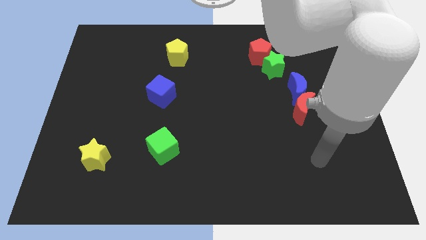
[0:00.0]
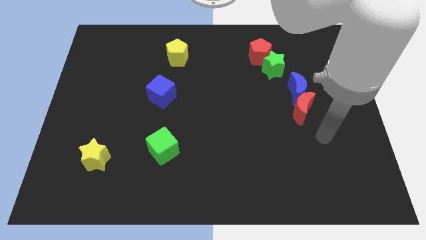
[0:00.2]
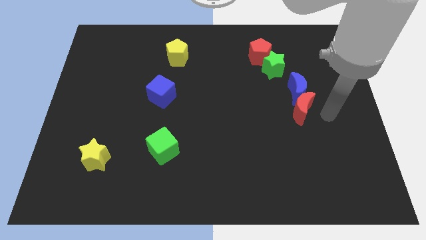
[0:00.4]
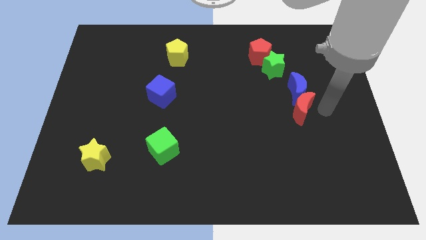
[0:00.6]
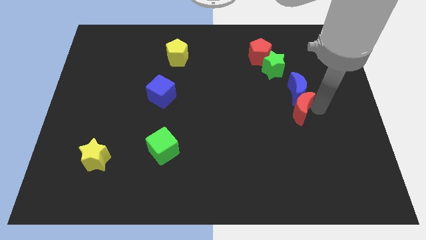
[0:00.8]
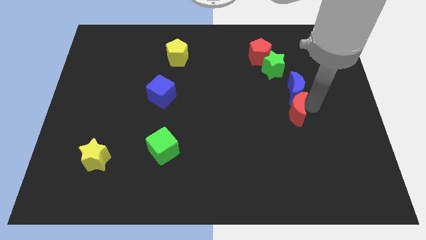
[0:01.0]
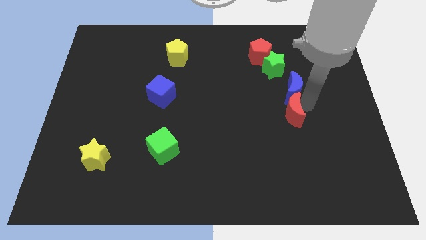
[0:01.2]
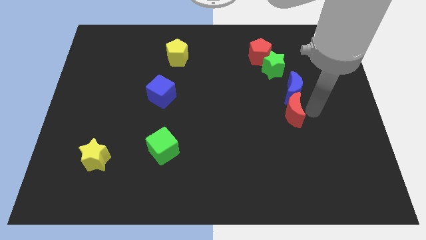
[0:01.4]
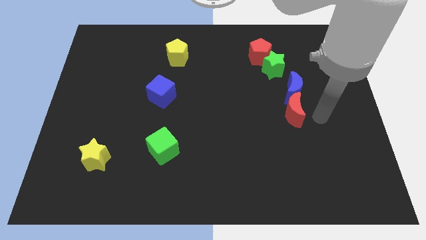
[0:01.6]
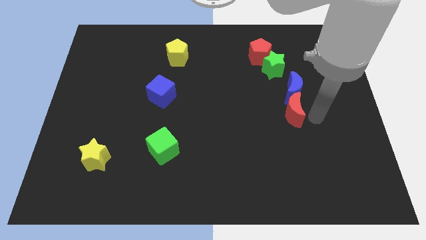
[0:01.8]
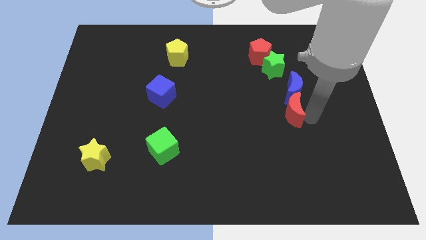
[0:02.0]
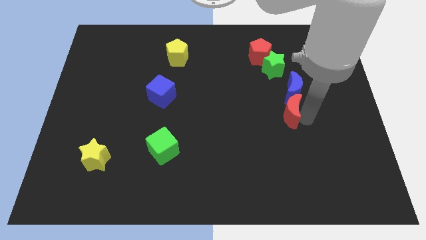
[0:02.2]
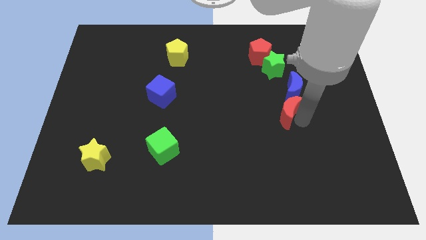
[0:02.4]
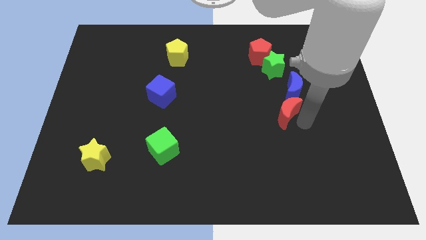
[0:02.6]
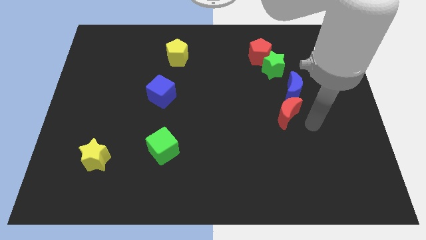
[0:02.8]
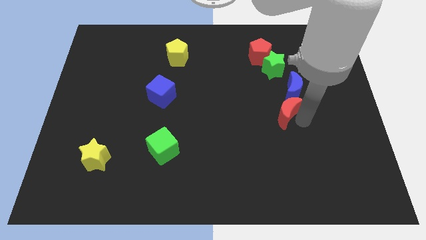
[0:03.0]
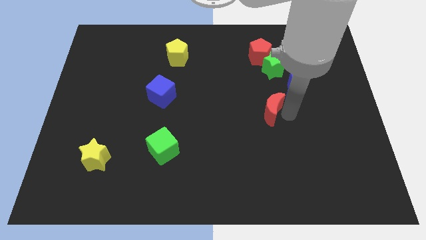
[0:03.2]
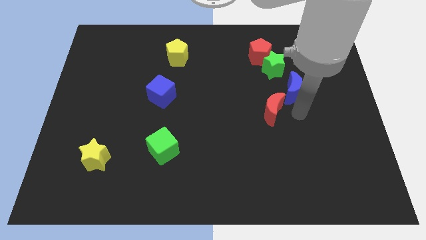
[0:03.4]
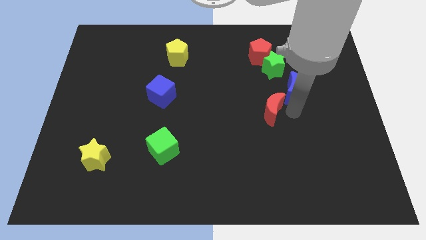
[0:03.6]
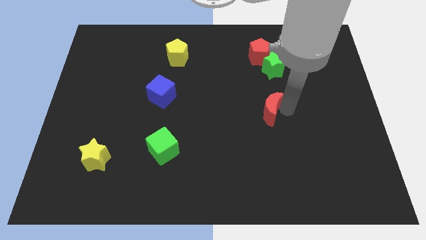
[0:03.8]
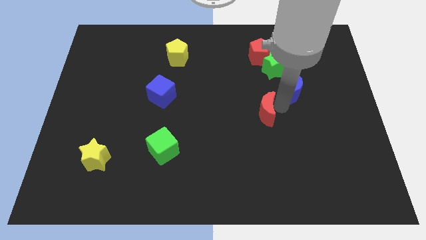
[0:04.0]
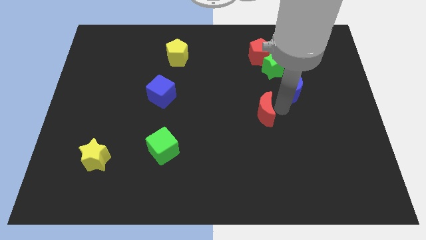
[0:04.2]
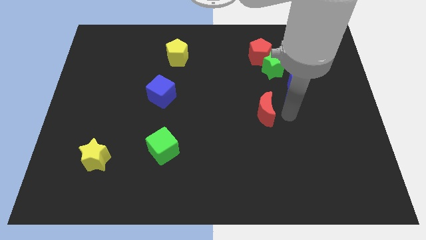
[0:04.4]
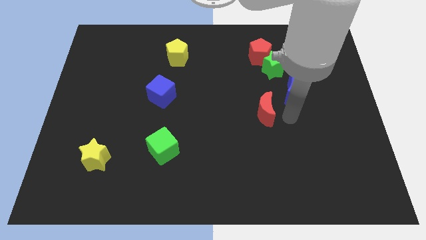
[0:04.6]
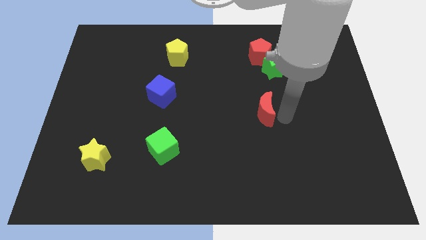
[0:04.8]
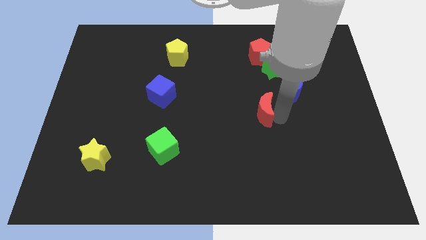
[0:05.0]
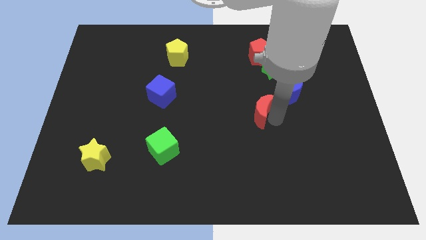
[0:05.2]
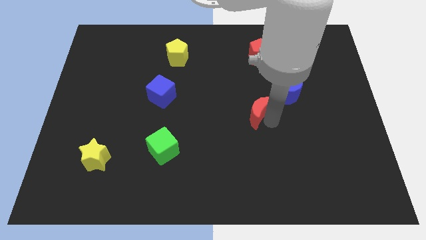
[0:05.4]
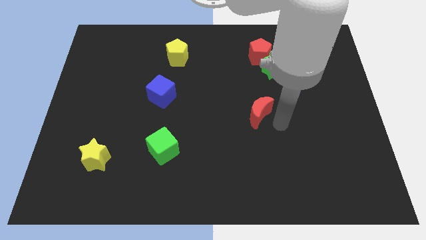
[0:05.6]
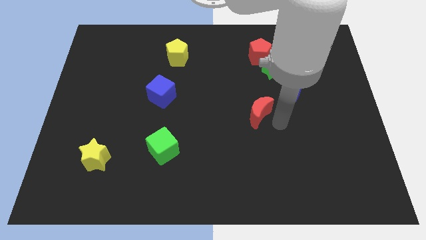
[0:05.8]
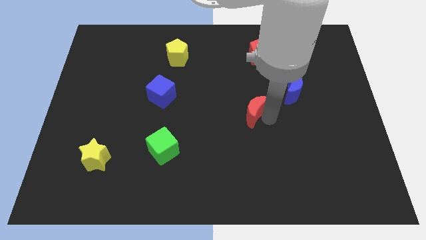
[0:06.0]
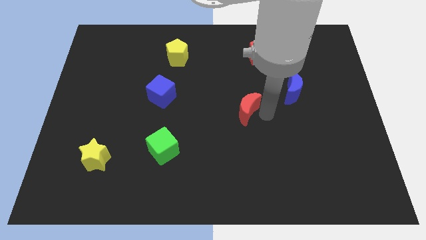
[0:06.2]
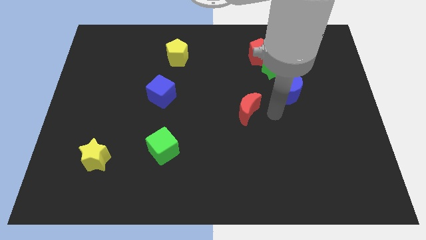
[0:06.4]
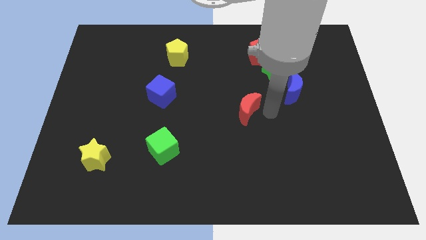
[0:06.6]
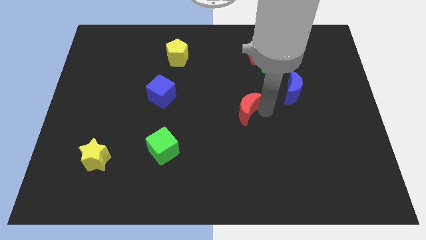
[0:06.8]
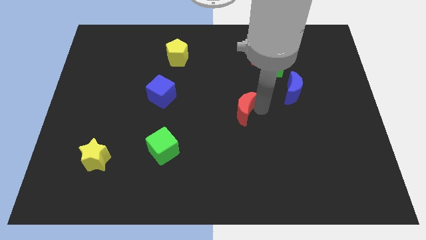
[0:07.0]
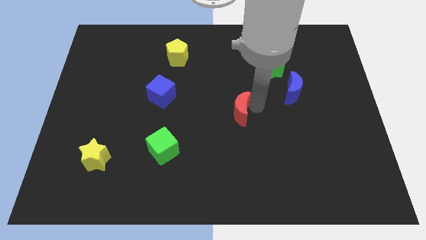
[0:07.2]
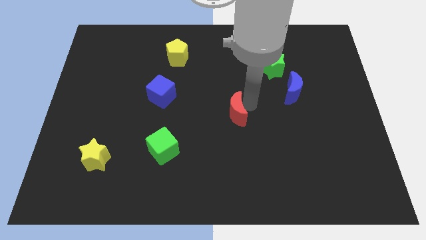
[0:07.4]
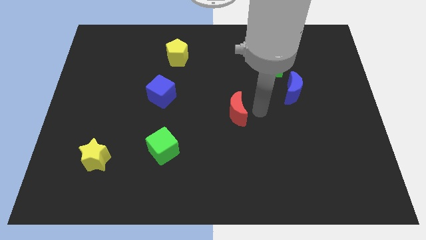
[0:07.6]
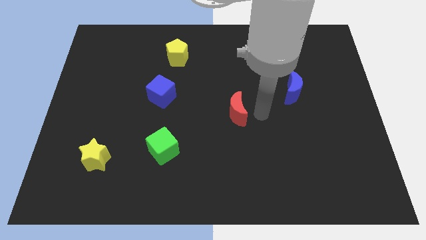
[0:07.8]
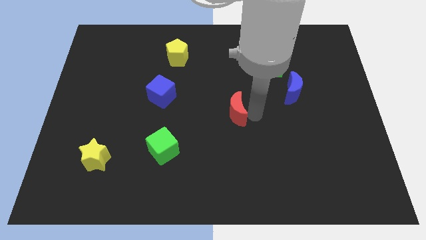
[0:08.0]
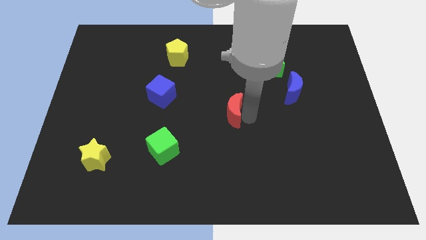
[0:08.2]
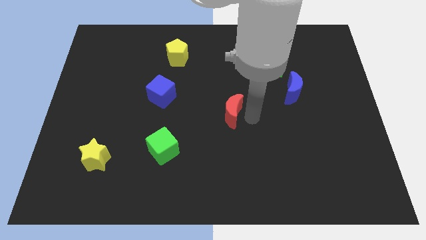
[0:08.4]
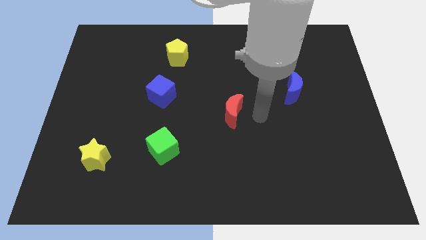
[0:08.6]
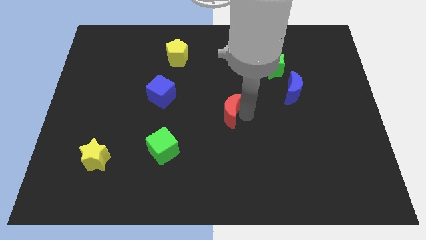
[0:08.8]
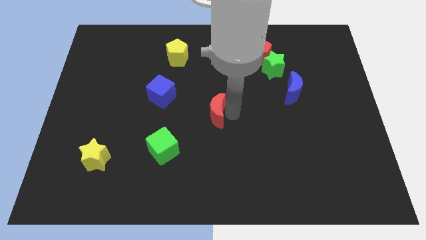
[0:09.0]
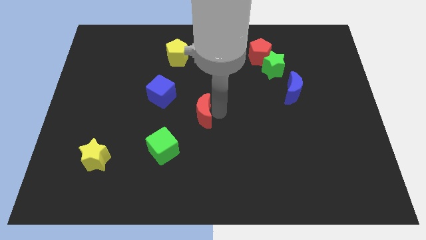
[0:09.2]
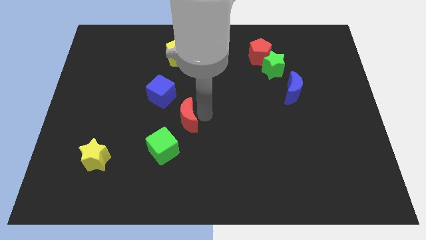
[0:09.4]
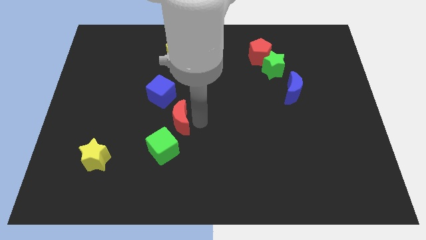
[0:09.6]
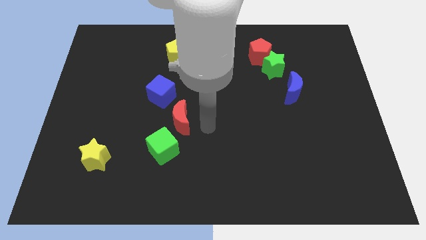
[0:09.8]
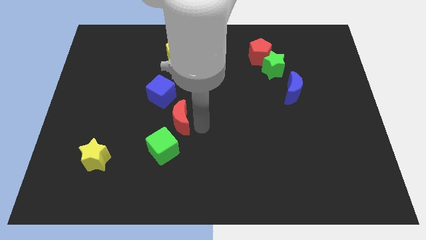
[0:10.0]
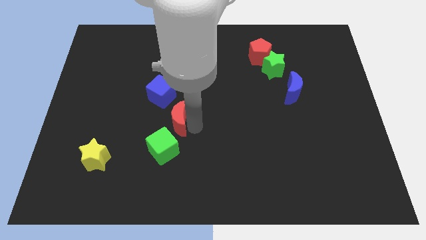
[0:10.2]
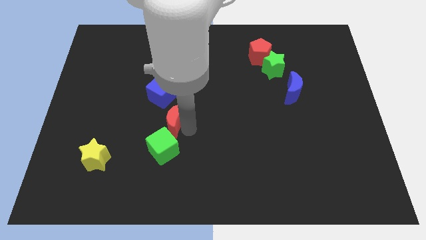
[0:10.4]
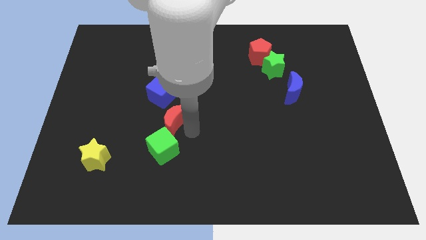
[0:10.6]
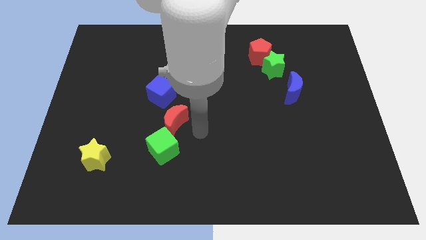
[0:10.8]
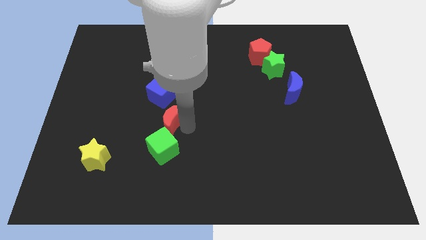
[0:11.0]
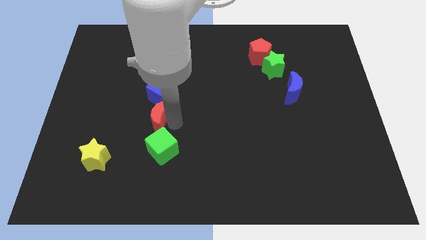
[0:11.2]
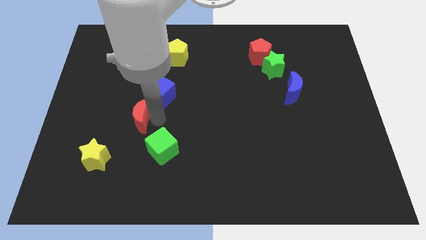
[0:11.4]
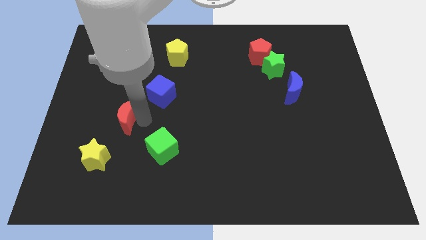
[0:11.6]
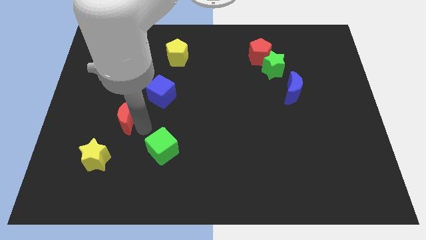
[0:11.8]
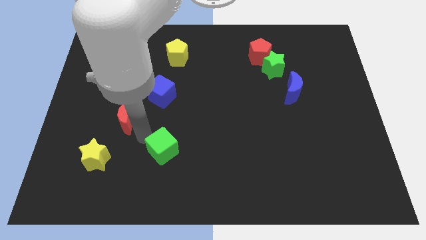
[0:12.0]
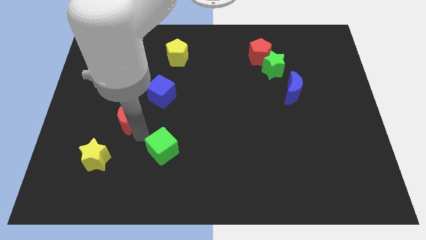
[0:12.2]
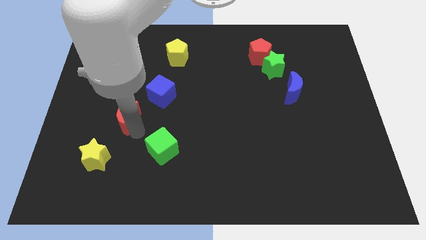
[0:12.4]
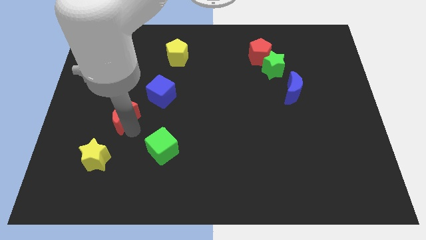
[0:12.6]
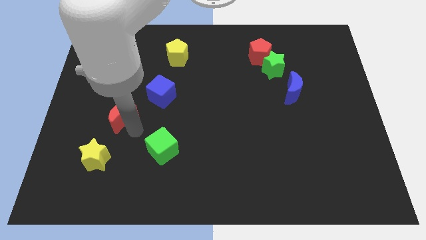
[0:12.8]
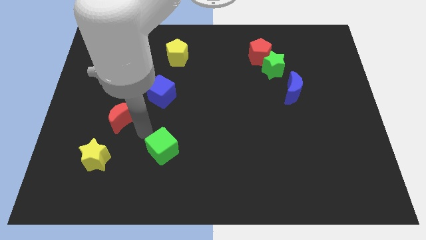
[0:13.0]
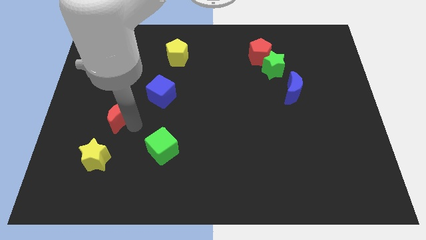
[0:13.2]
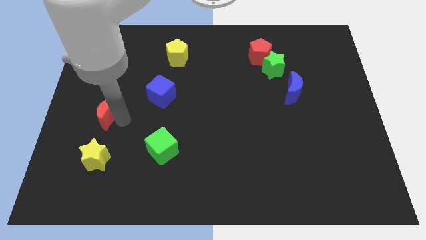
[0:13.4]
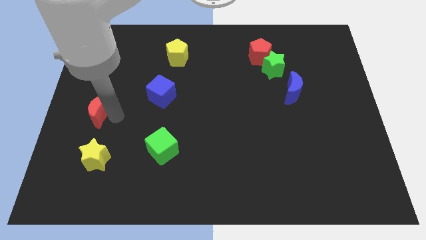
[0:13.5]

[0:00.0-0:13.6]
slide the red moon to the center left
